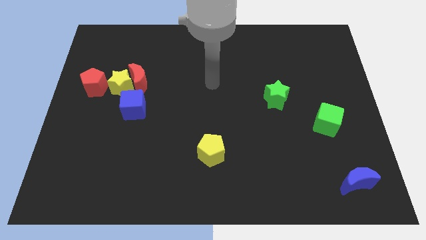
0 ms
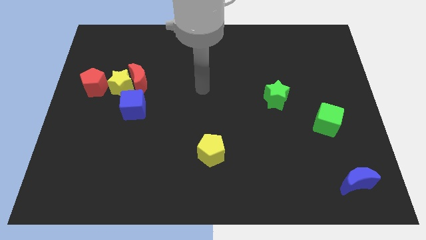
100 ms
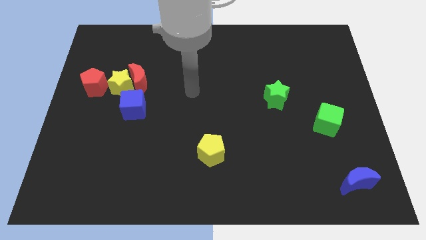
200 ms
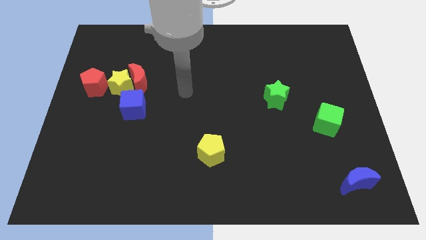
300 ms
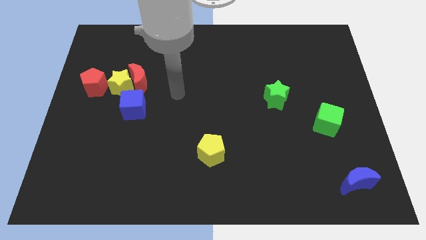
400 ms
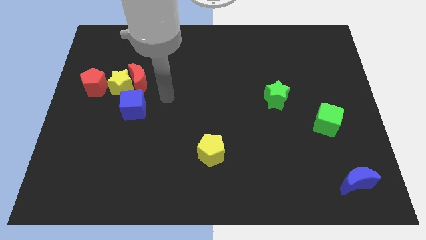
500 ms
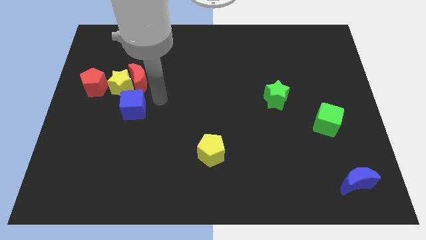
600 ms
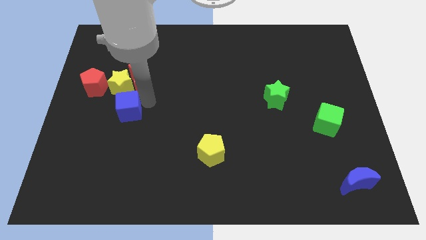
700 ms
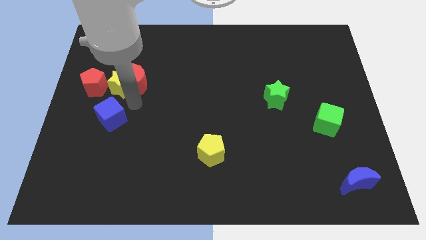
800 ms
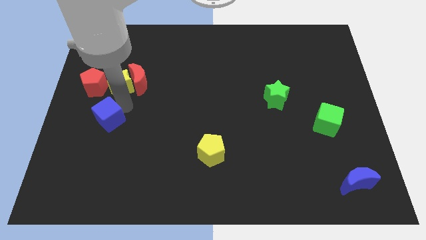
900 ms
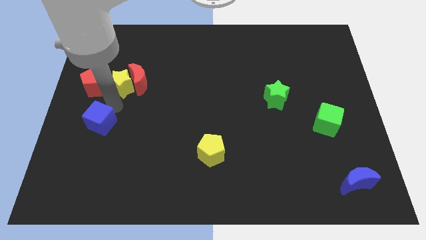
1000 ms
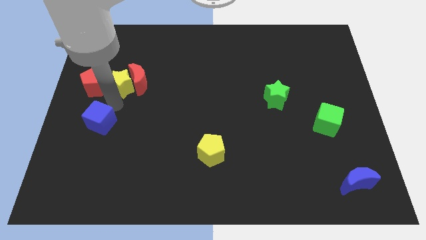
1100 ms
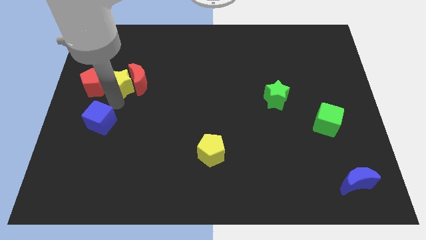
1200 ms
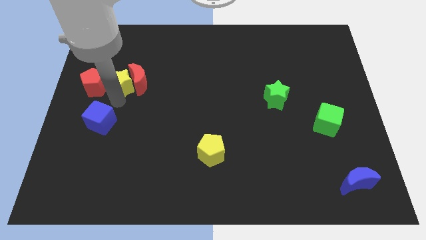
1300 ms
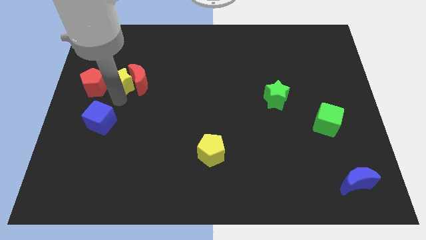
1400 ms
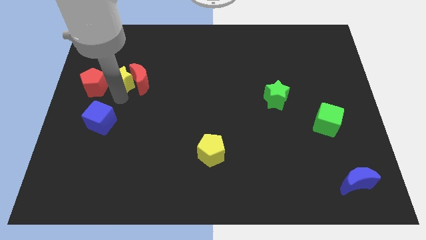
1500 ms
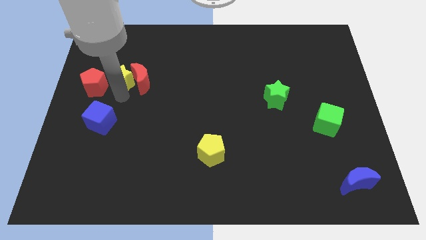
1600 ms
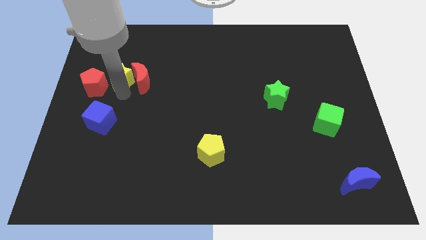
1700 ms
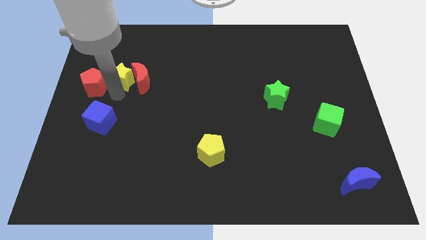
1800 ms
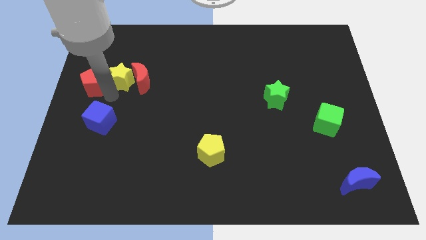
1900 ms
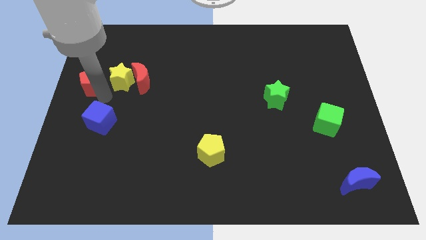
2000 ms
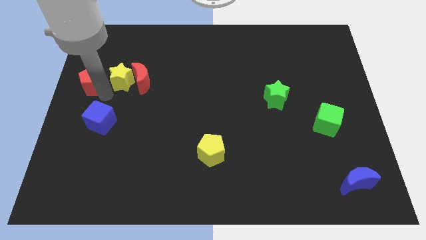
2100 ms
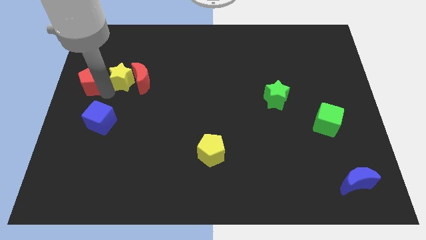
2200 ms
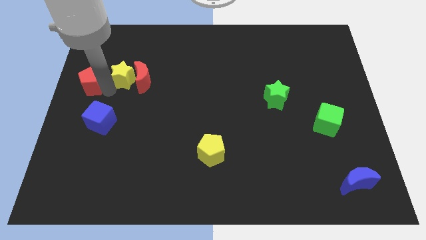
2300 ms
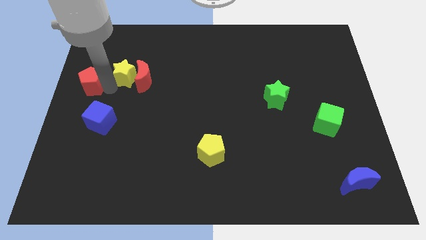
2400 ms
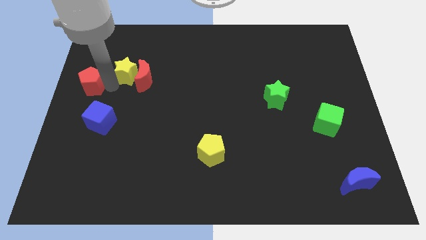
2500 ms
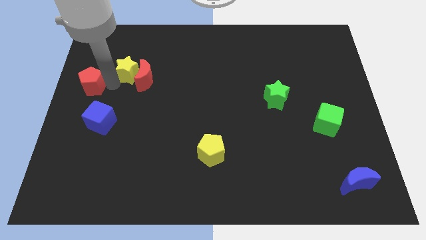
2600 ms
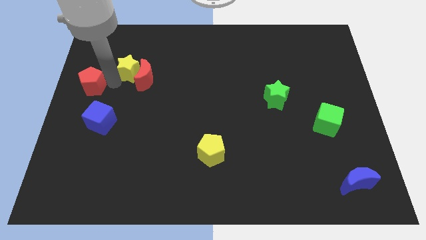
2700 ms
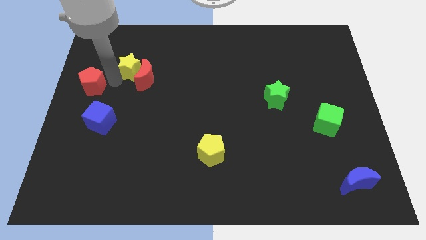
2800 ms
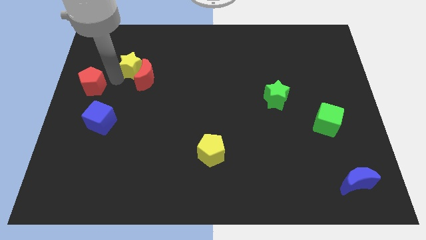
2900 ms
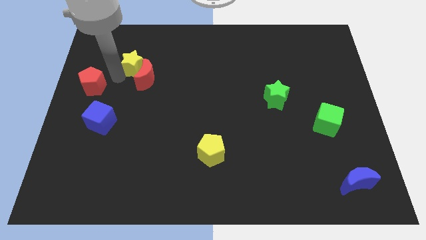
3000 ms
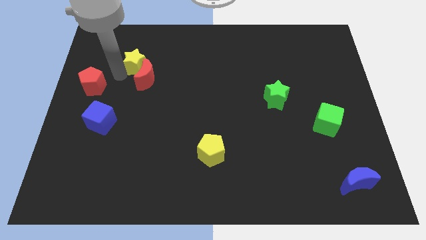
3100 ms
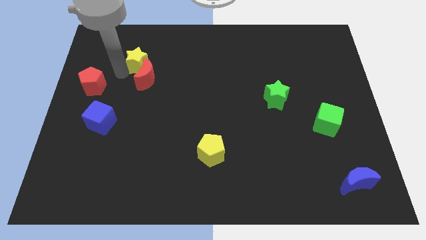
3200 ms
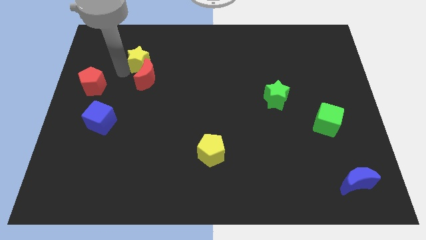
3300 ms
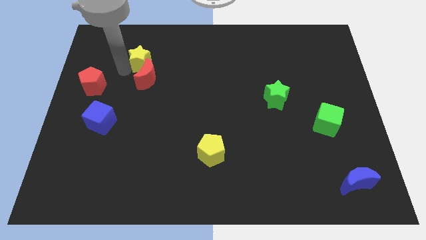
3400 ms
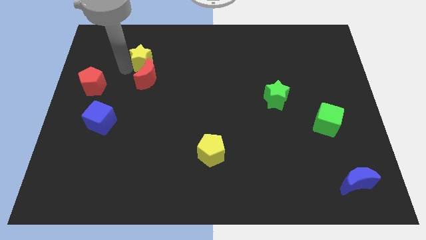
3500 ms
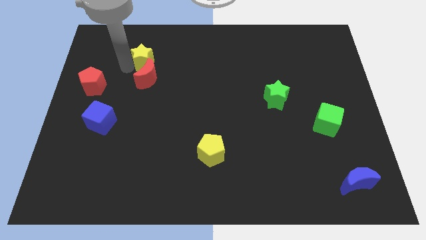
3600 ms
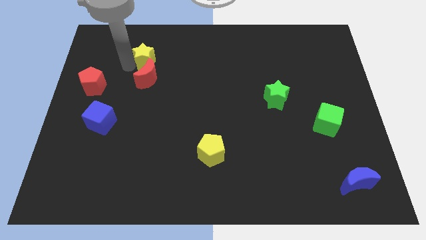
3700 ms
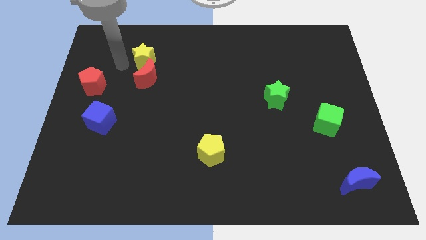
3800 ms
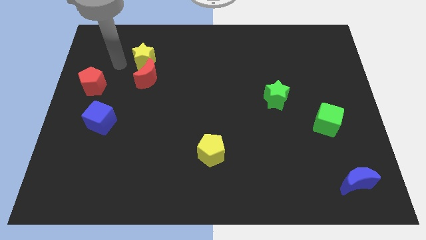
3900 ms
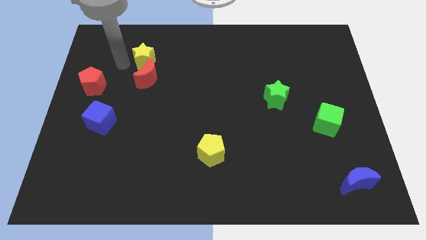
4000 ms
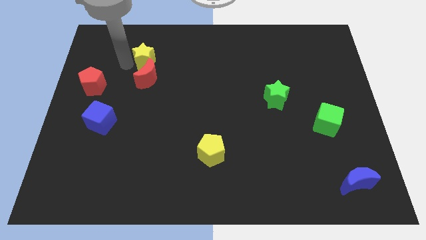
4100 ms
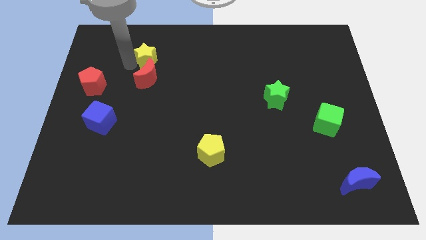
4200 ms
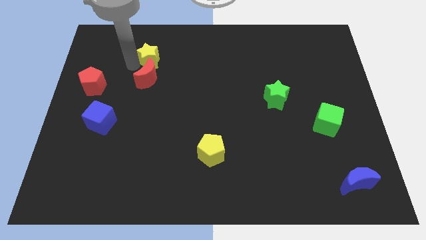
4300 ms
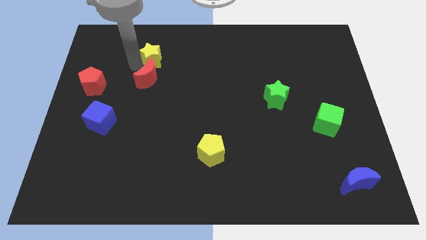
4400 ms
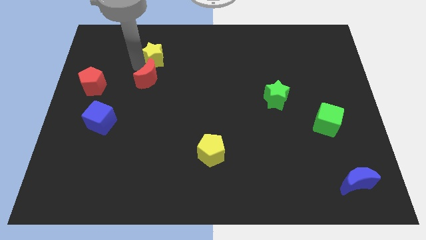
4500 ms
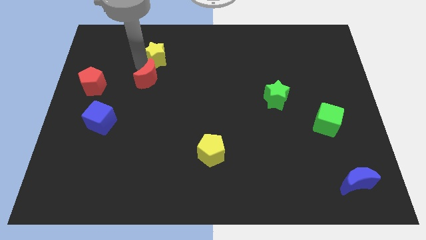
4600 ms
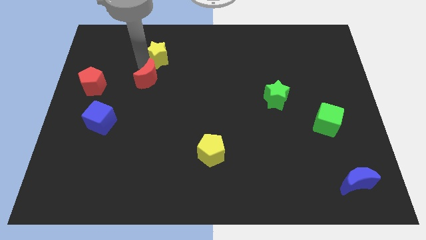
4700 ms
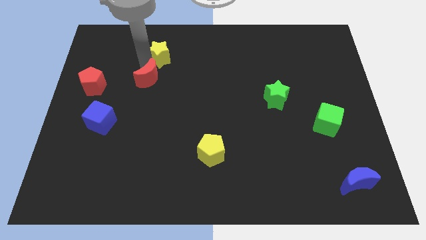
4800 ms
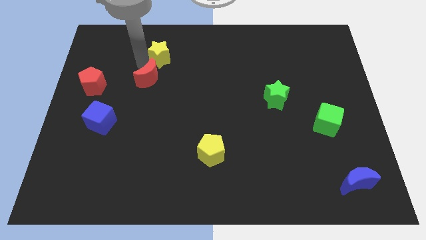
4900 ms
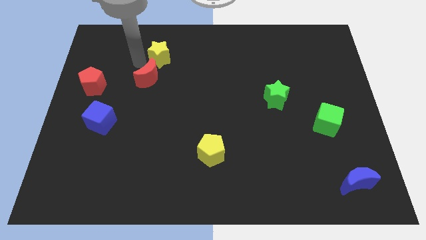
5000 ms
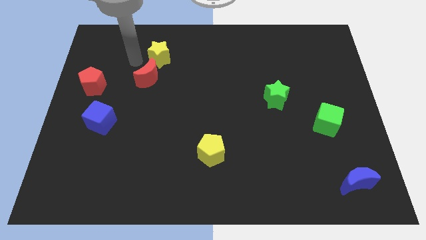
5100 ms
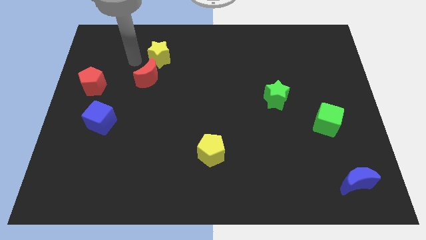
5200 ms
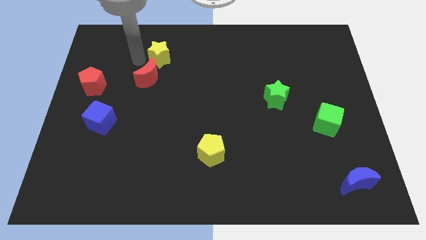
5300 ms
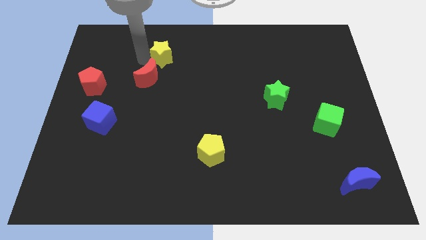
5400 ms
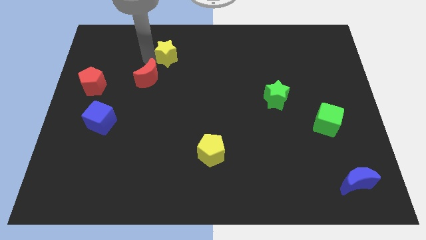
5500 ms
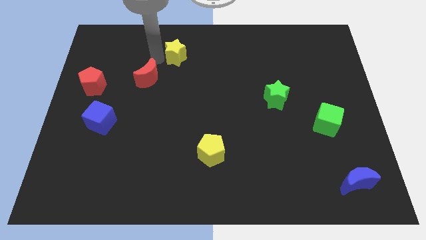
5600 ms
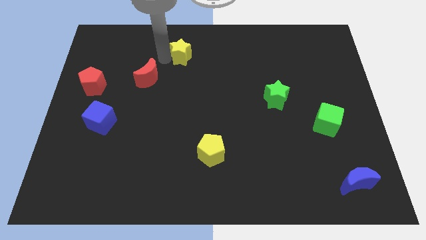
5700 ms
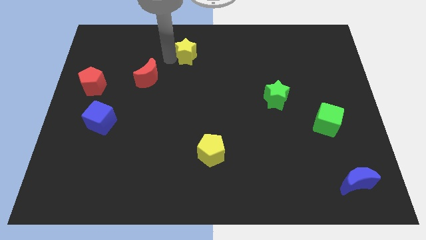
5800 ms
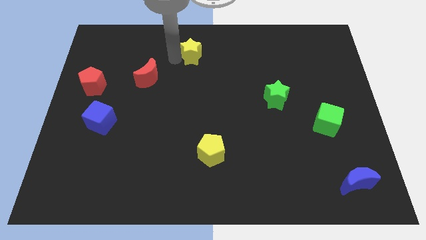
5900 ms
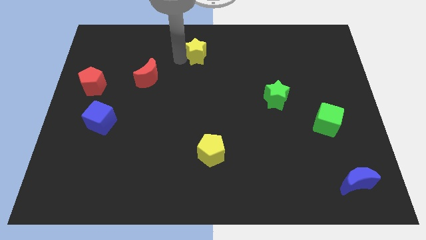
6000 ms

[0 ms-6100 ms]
push the yellow star to the top side

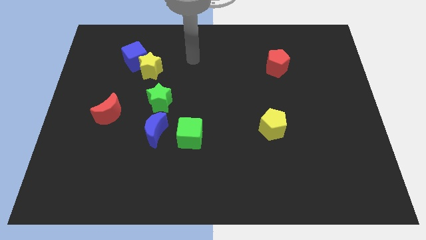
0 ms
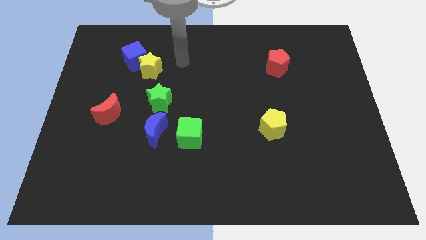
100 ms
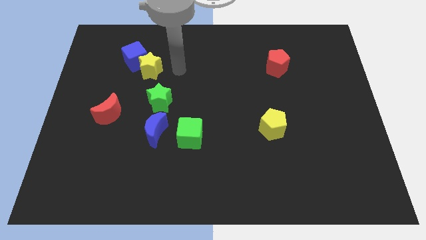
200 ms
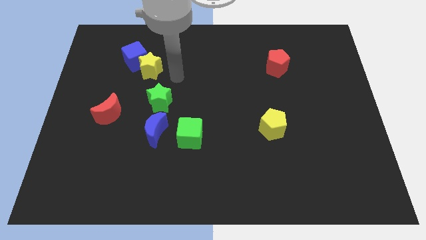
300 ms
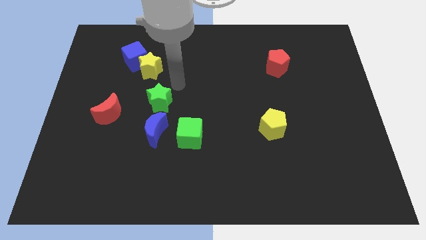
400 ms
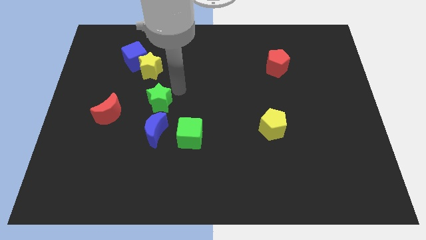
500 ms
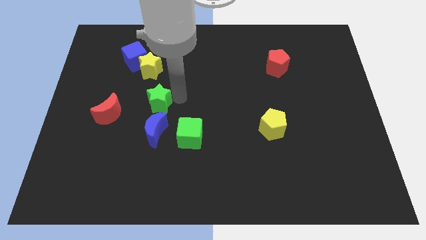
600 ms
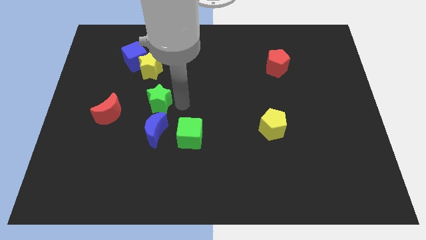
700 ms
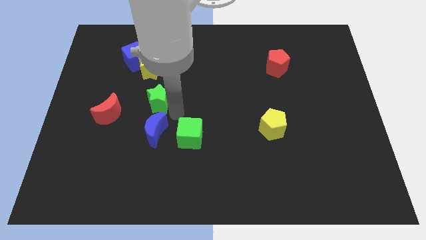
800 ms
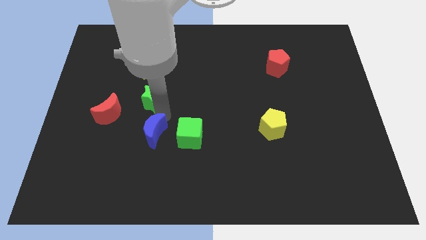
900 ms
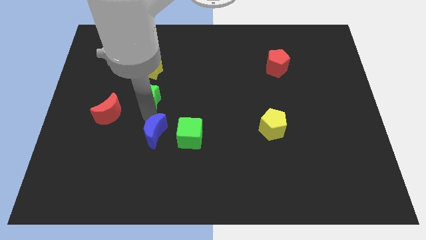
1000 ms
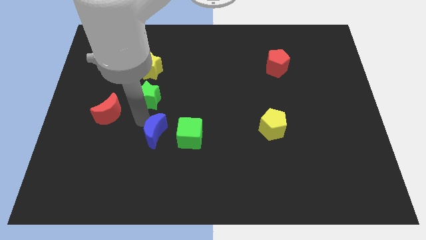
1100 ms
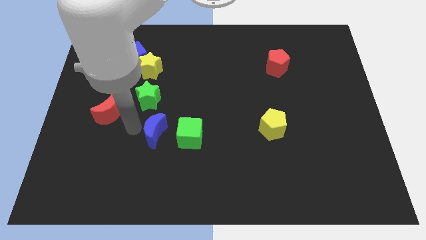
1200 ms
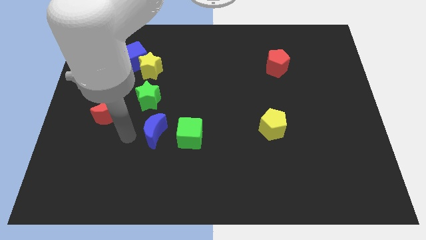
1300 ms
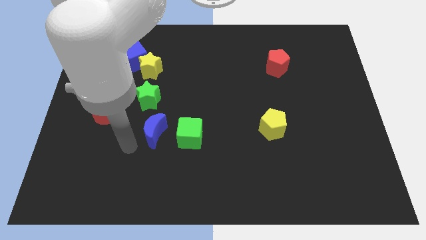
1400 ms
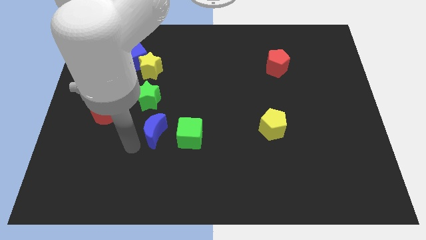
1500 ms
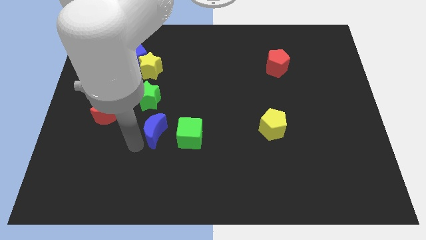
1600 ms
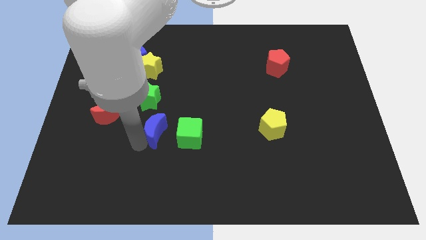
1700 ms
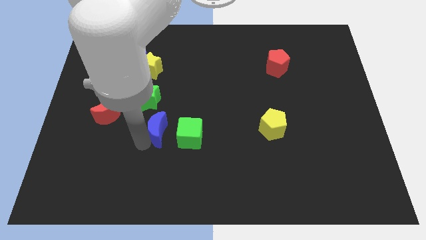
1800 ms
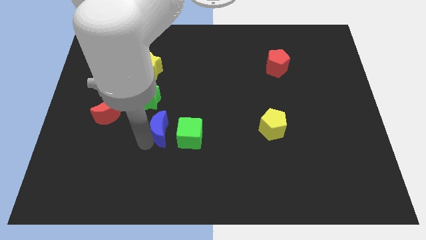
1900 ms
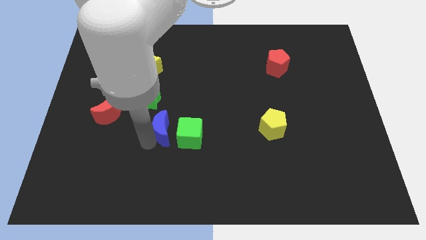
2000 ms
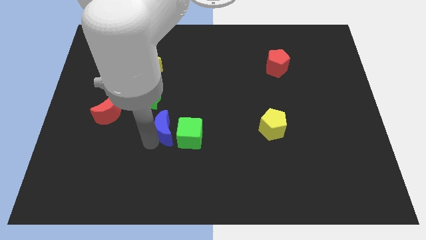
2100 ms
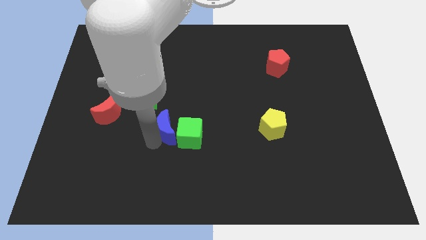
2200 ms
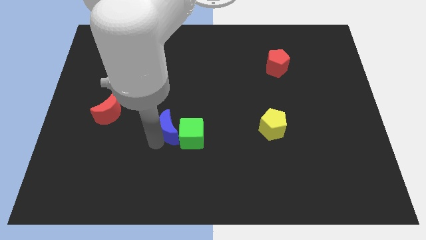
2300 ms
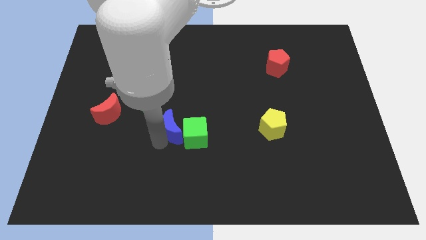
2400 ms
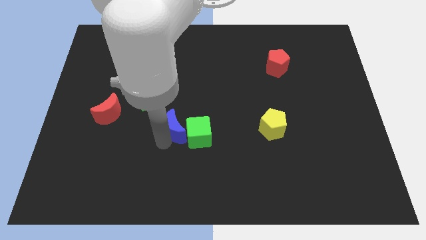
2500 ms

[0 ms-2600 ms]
put the blue moon to the middle of the board
